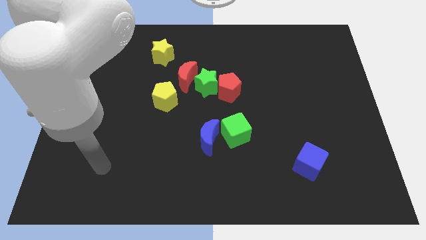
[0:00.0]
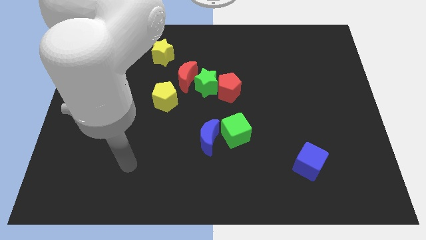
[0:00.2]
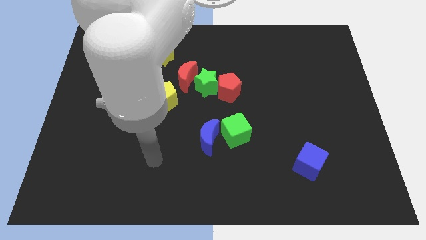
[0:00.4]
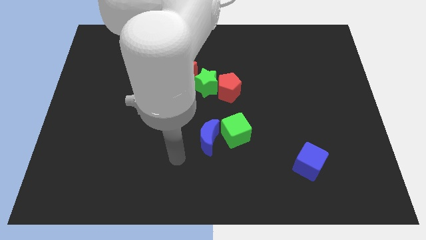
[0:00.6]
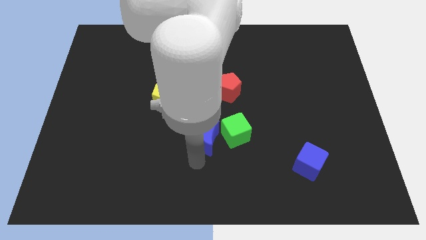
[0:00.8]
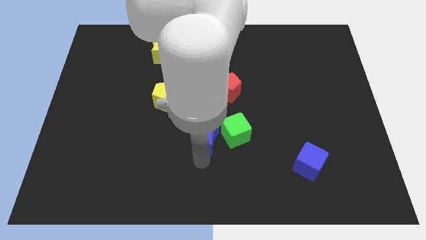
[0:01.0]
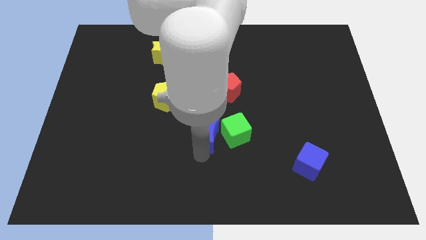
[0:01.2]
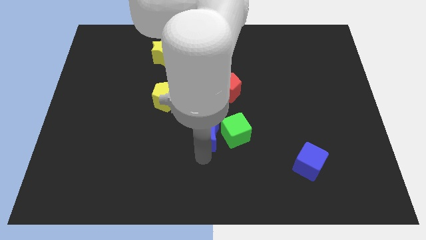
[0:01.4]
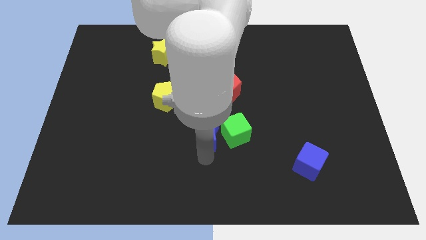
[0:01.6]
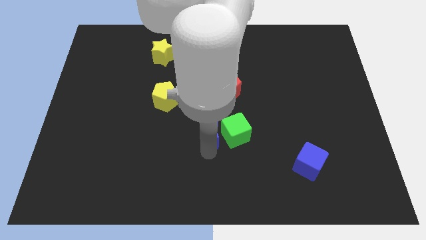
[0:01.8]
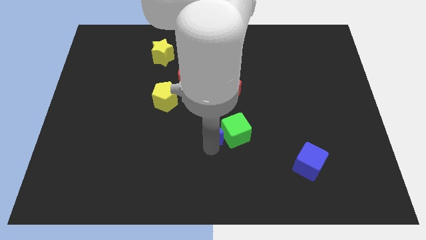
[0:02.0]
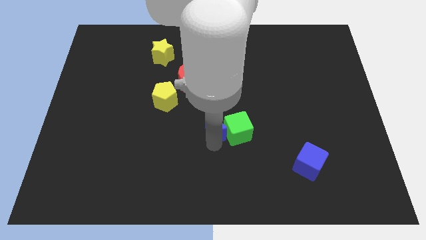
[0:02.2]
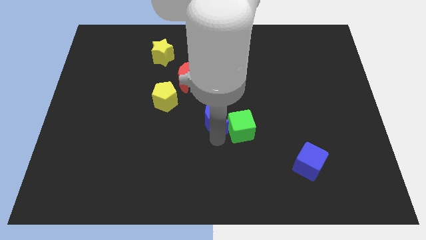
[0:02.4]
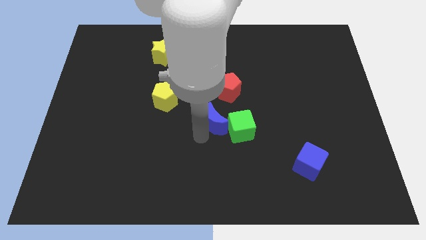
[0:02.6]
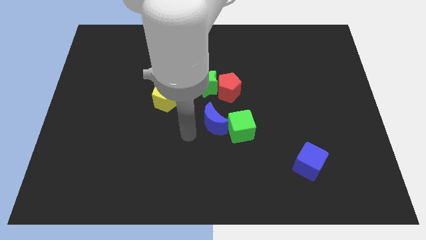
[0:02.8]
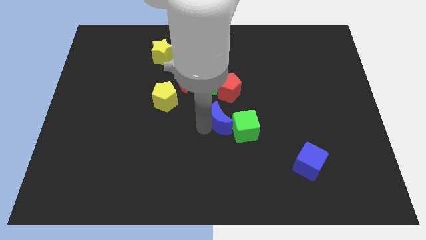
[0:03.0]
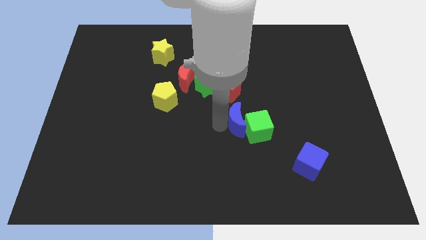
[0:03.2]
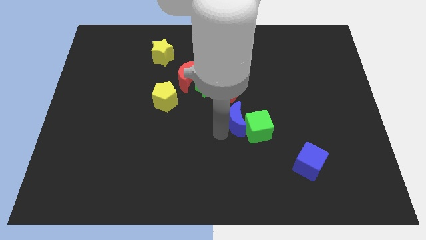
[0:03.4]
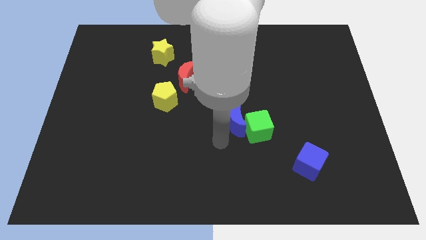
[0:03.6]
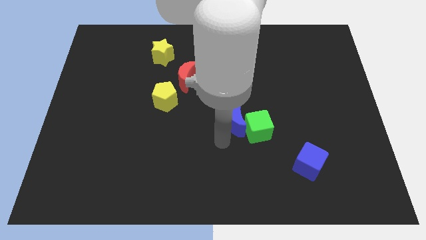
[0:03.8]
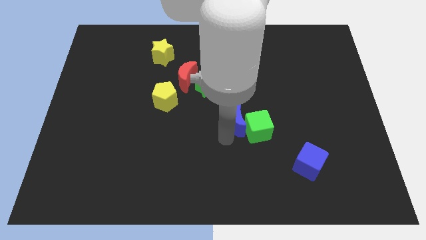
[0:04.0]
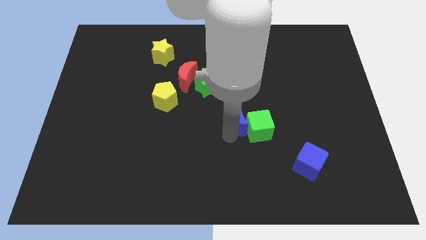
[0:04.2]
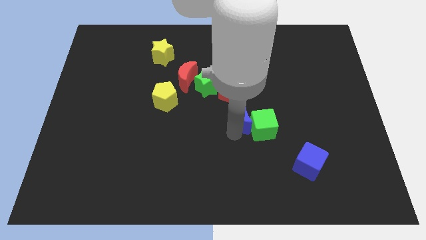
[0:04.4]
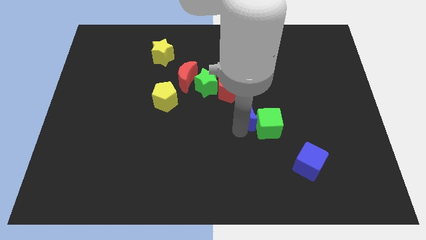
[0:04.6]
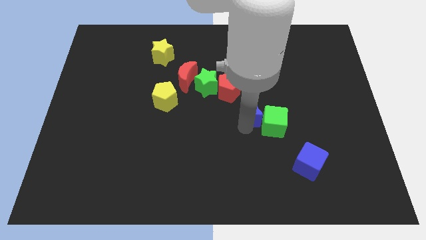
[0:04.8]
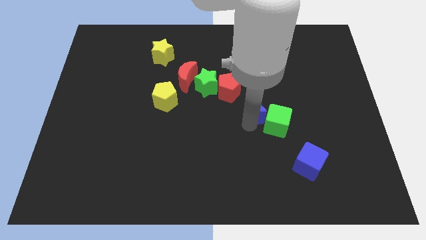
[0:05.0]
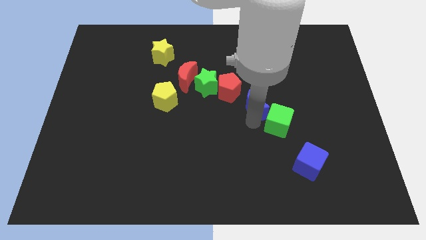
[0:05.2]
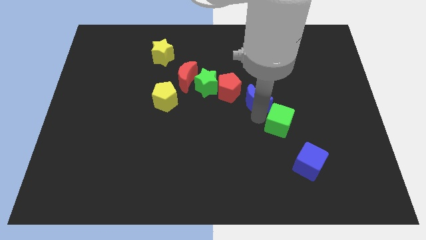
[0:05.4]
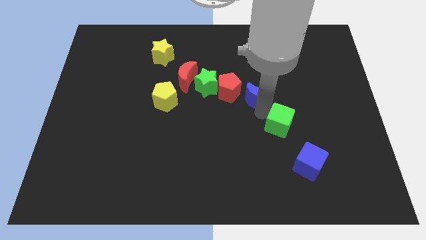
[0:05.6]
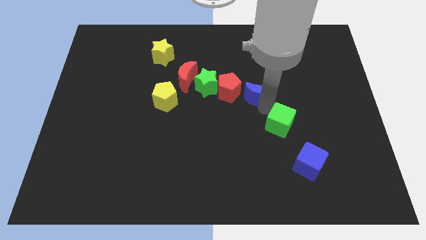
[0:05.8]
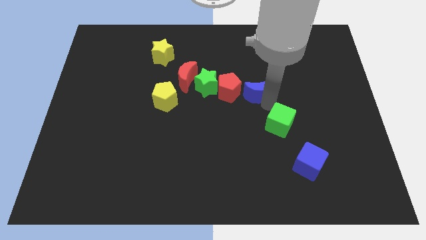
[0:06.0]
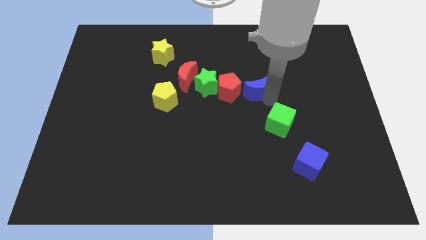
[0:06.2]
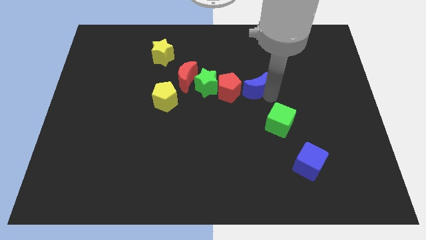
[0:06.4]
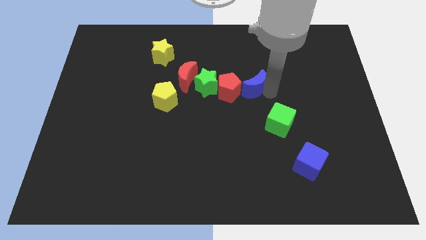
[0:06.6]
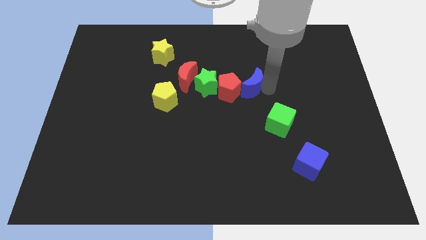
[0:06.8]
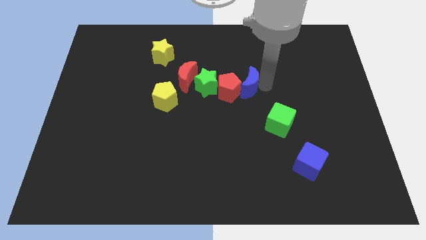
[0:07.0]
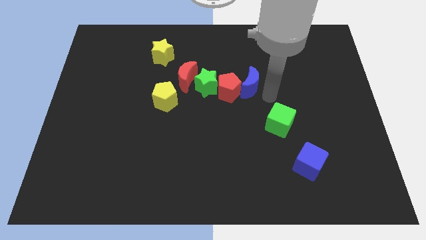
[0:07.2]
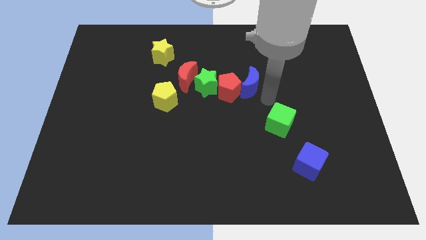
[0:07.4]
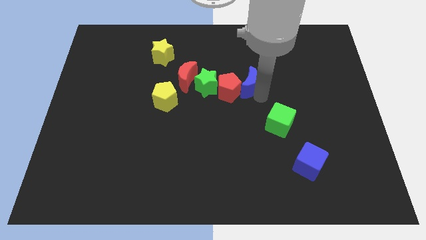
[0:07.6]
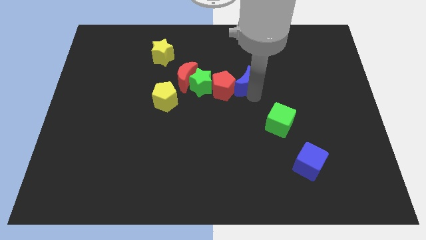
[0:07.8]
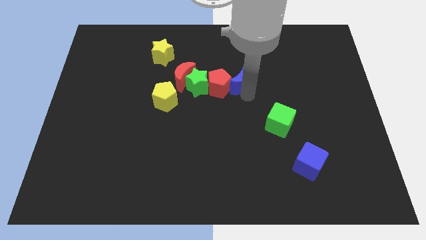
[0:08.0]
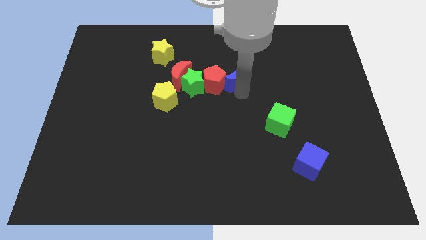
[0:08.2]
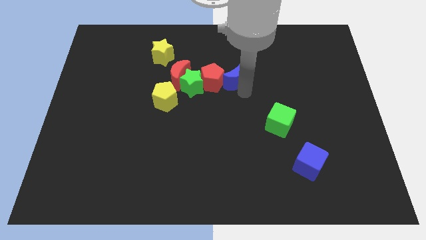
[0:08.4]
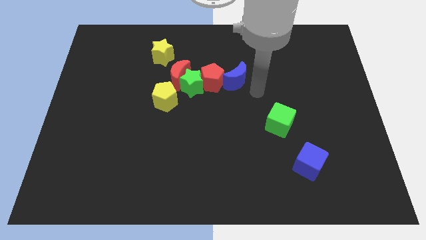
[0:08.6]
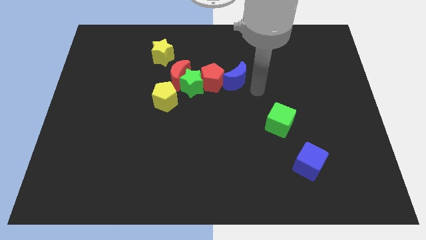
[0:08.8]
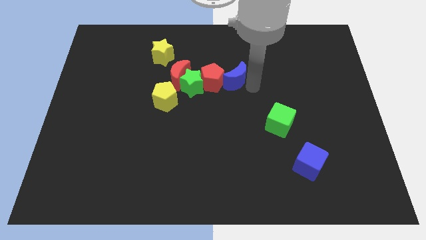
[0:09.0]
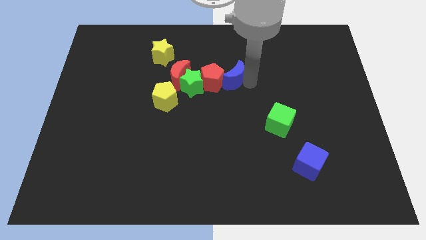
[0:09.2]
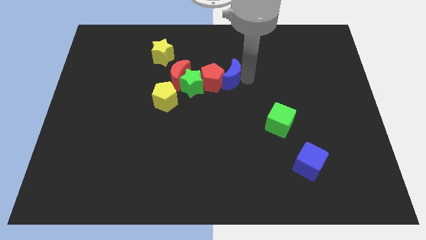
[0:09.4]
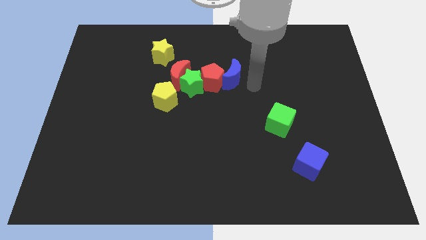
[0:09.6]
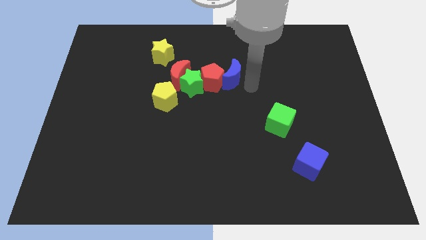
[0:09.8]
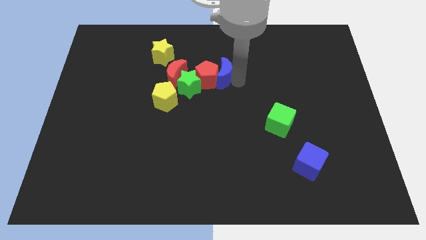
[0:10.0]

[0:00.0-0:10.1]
move the blue moon diagonally up and to the right of the green star

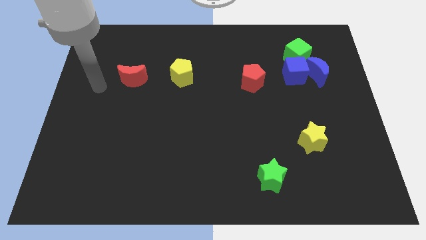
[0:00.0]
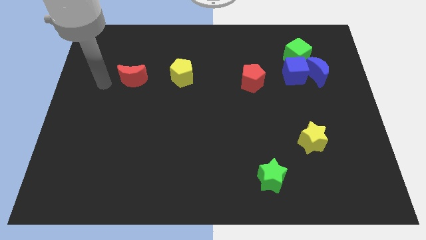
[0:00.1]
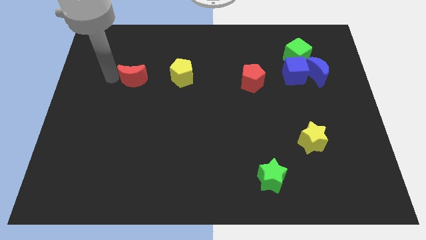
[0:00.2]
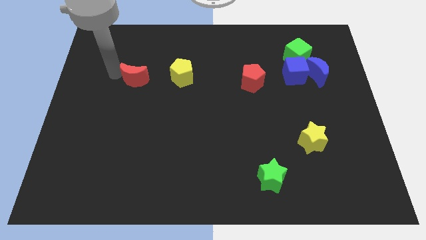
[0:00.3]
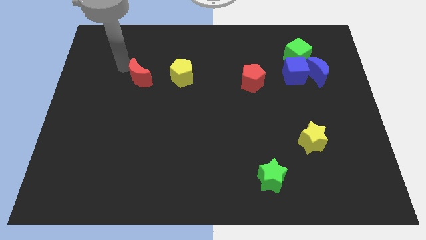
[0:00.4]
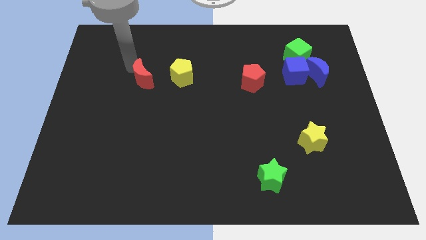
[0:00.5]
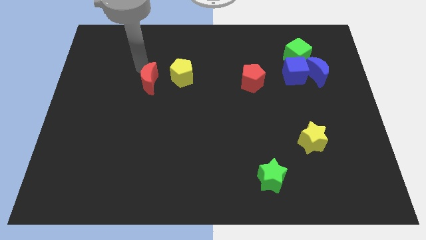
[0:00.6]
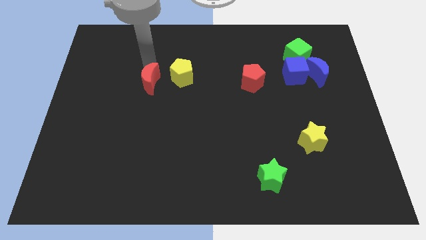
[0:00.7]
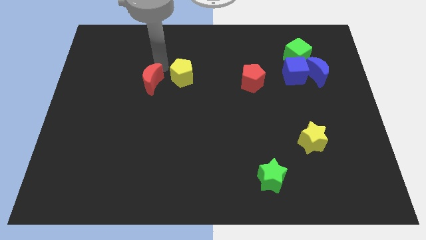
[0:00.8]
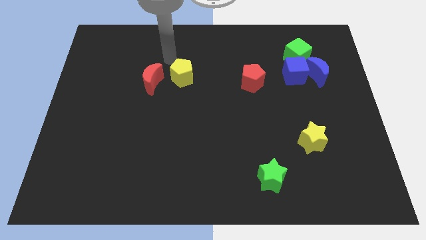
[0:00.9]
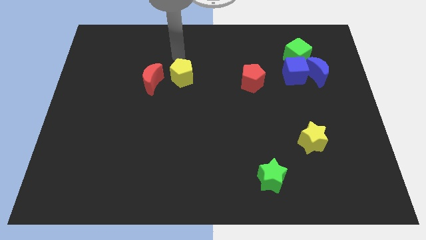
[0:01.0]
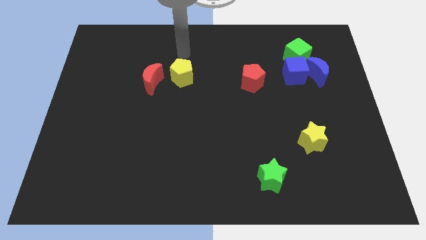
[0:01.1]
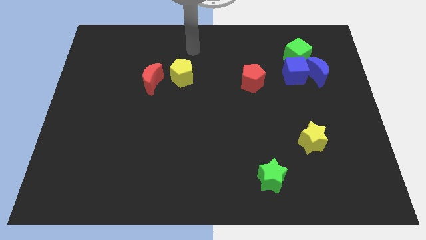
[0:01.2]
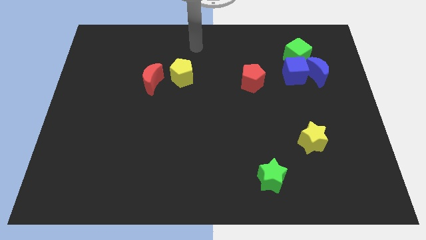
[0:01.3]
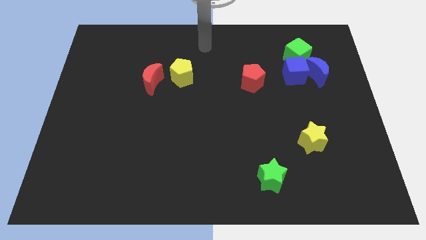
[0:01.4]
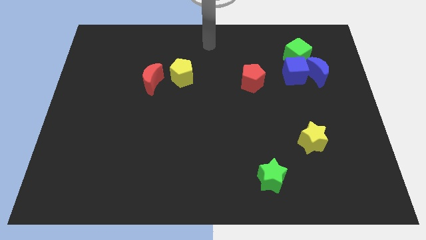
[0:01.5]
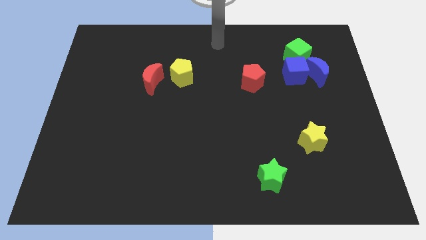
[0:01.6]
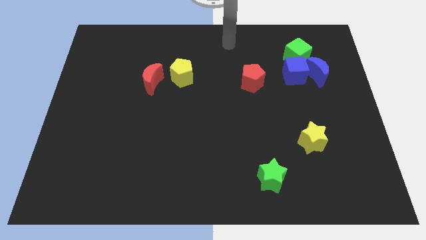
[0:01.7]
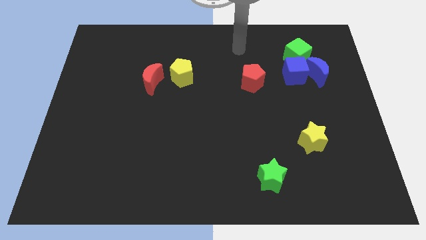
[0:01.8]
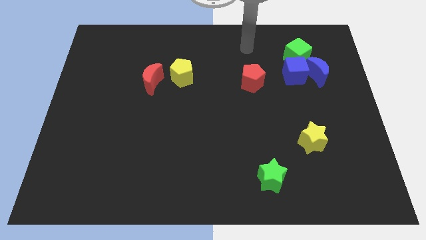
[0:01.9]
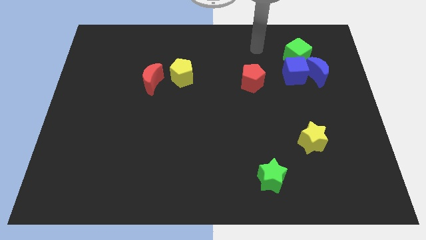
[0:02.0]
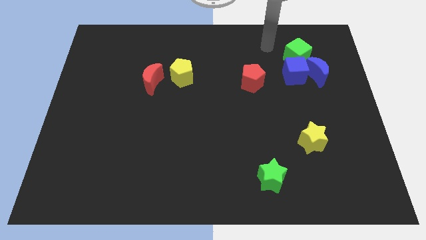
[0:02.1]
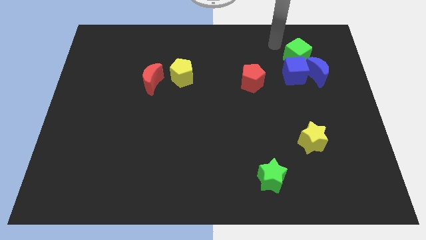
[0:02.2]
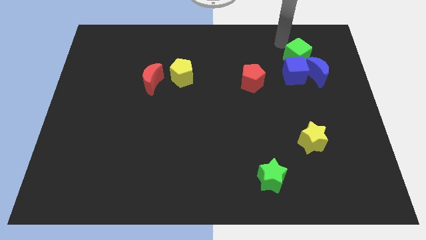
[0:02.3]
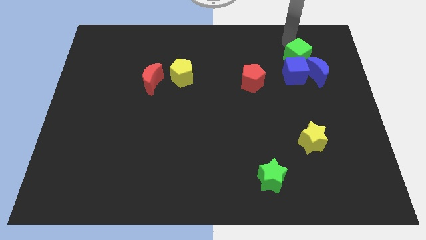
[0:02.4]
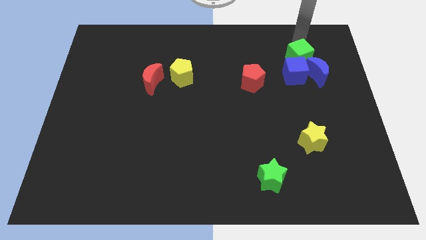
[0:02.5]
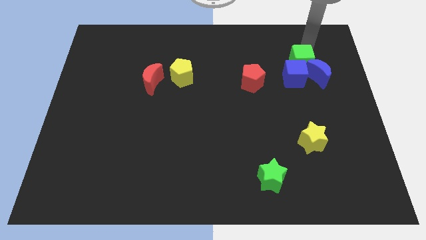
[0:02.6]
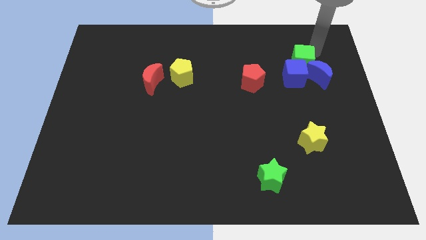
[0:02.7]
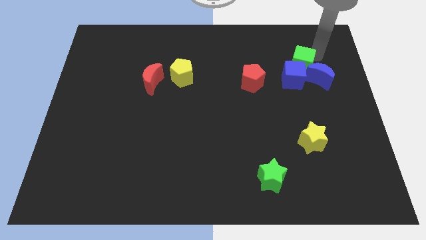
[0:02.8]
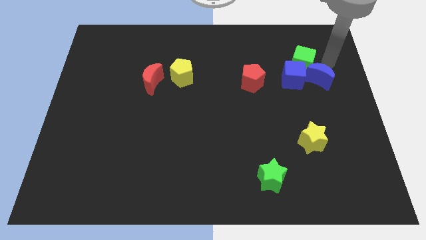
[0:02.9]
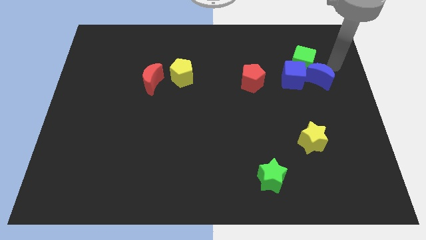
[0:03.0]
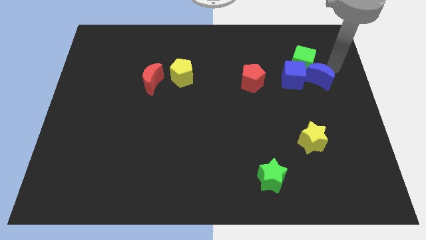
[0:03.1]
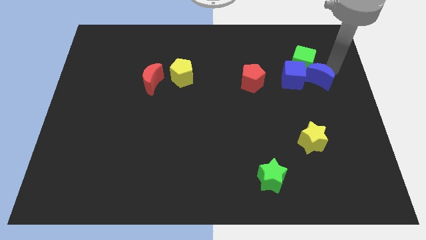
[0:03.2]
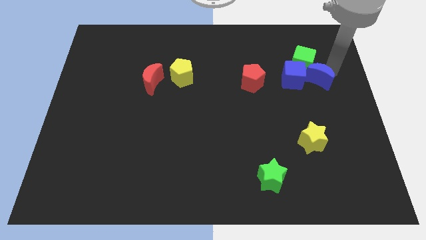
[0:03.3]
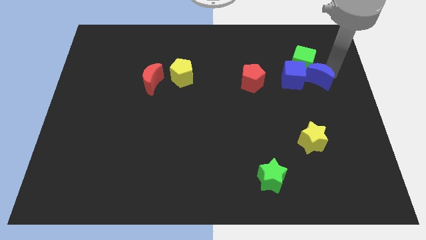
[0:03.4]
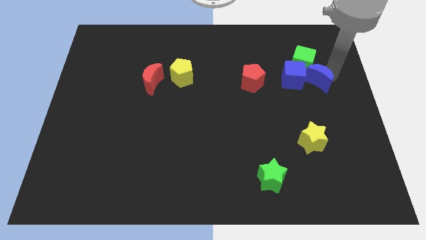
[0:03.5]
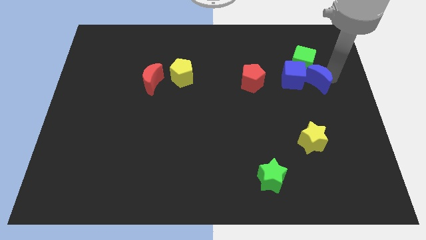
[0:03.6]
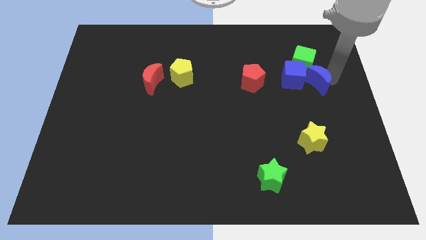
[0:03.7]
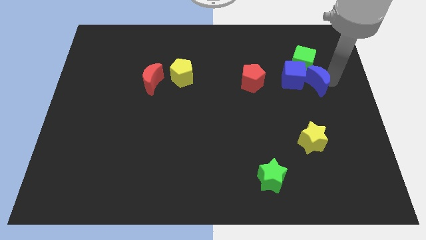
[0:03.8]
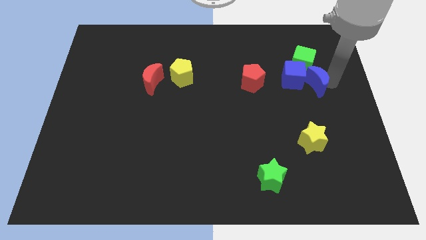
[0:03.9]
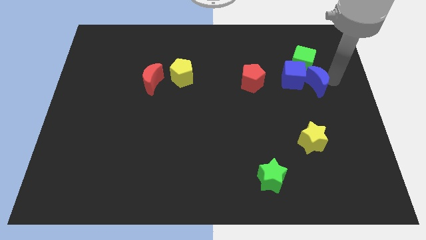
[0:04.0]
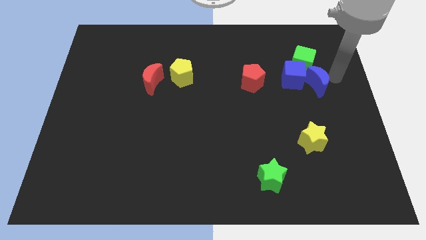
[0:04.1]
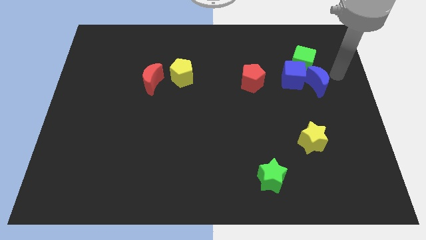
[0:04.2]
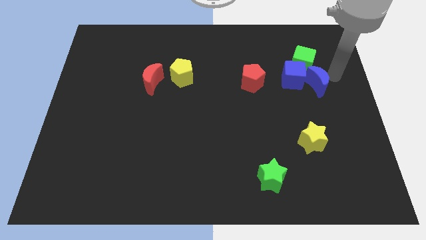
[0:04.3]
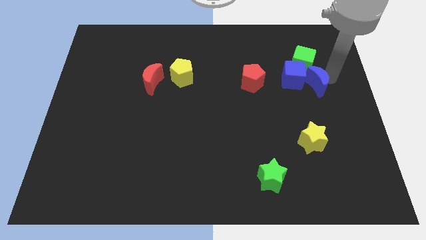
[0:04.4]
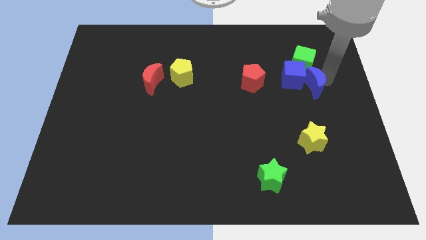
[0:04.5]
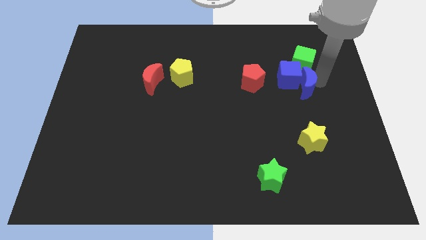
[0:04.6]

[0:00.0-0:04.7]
put the blue moon to the top side of the yellow star
